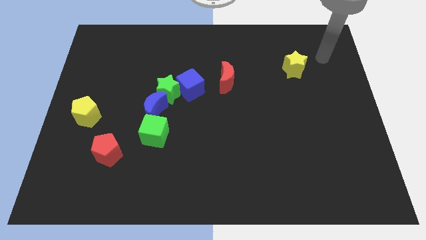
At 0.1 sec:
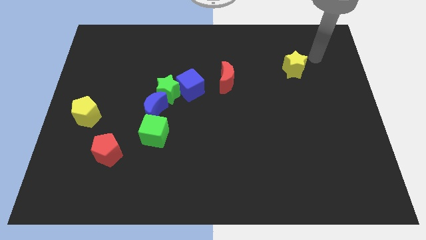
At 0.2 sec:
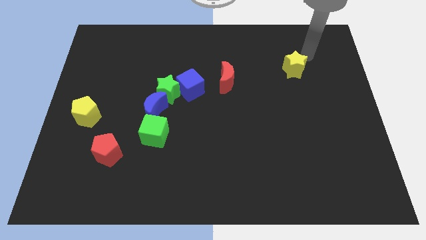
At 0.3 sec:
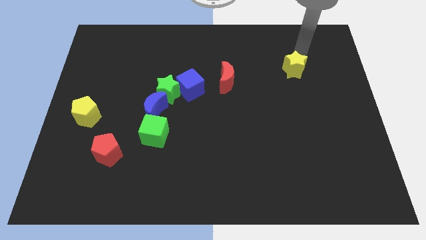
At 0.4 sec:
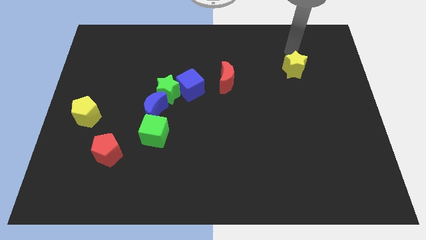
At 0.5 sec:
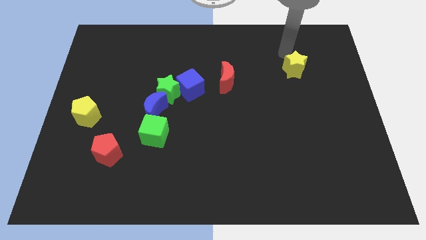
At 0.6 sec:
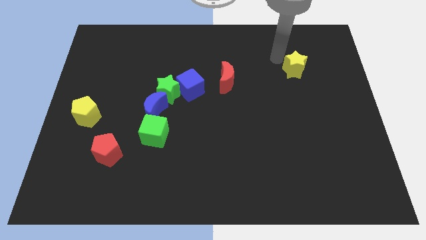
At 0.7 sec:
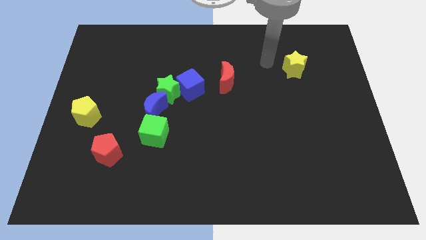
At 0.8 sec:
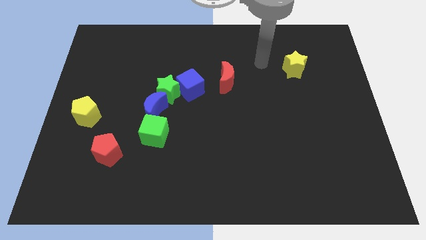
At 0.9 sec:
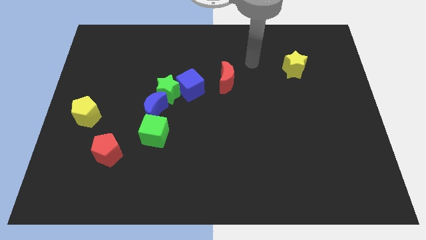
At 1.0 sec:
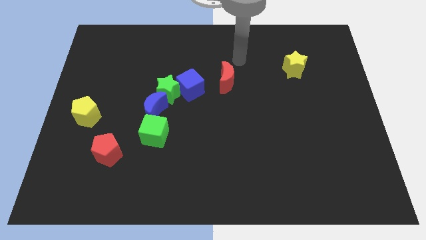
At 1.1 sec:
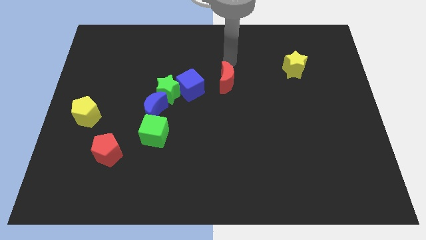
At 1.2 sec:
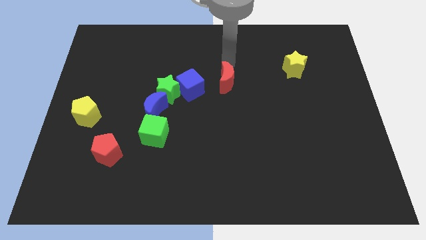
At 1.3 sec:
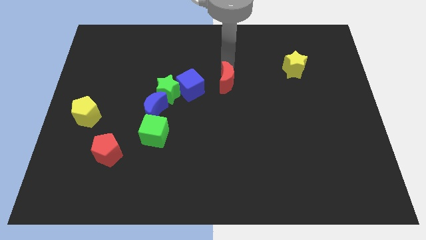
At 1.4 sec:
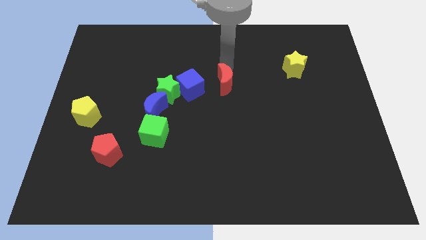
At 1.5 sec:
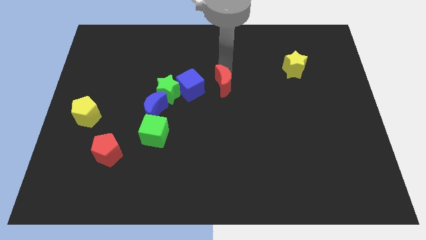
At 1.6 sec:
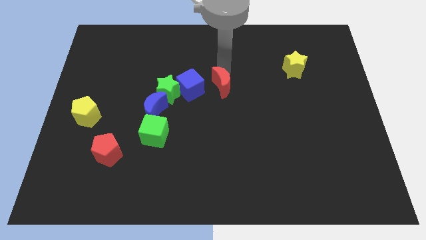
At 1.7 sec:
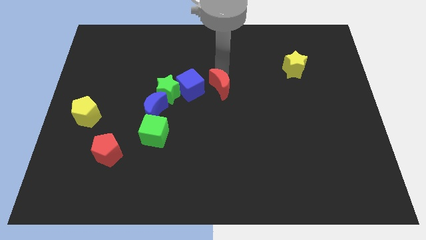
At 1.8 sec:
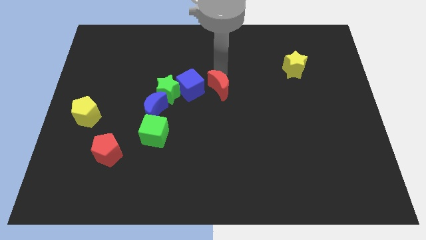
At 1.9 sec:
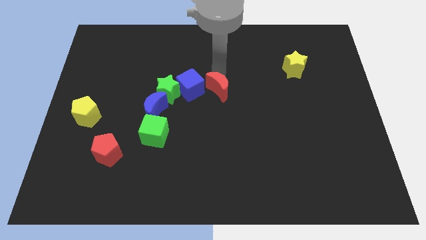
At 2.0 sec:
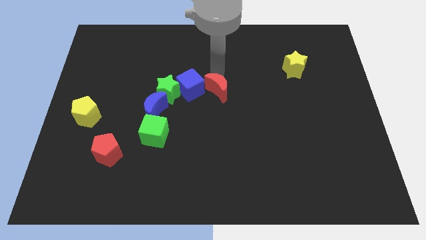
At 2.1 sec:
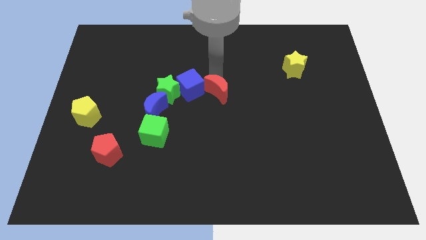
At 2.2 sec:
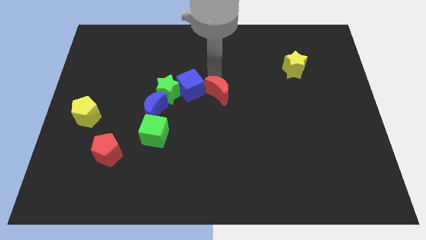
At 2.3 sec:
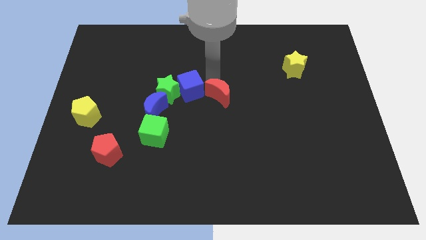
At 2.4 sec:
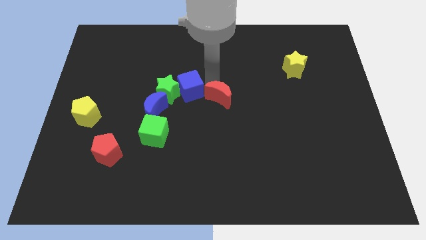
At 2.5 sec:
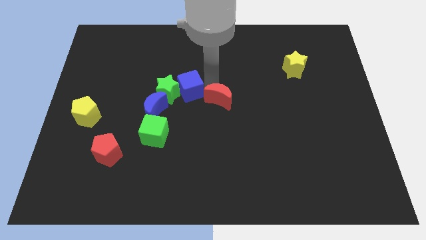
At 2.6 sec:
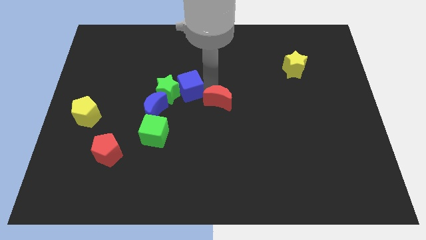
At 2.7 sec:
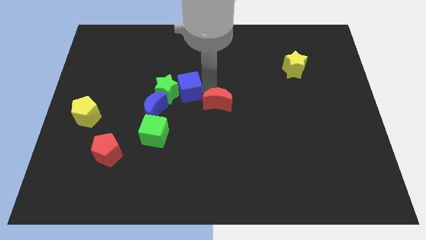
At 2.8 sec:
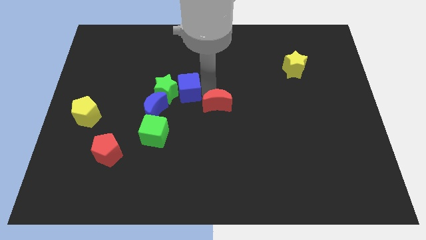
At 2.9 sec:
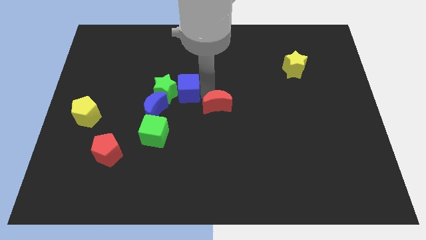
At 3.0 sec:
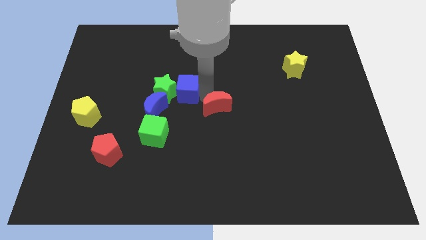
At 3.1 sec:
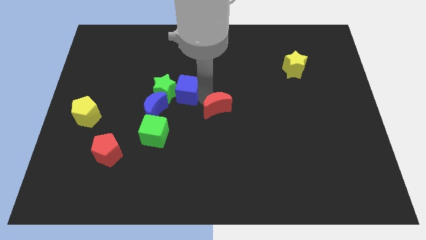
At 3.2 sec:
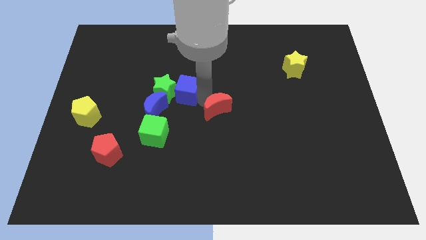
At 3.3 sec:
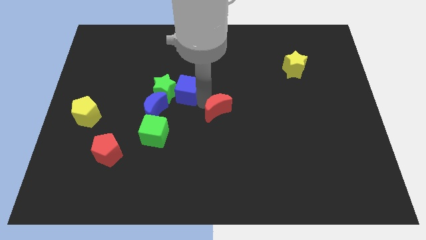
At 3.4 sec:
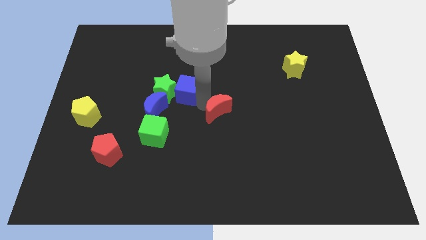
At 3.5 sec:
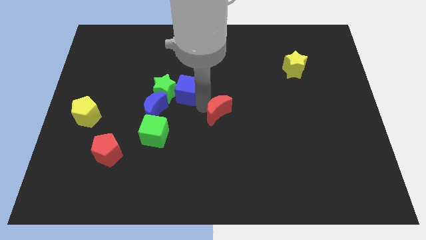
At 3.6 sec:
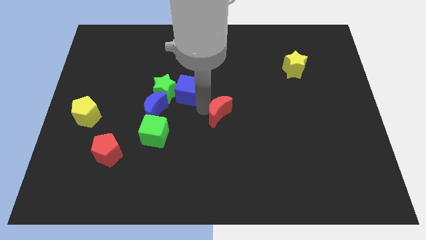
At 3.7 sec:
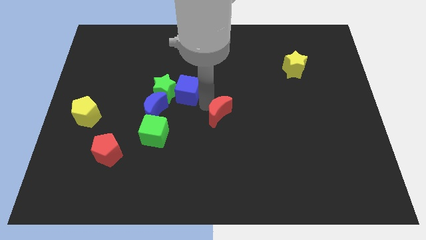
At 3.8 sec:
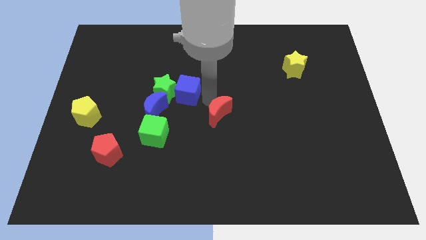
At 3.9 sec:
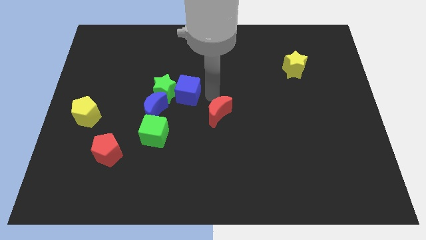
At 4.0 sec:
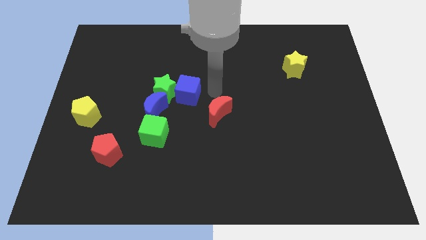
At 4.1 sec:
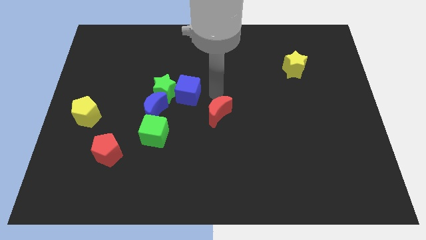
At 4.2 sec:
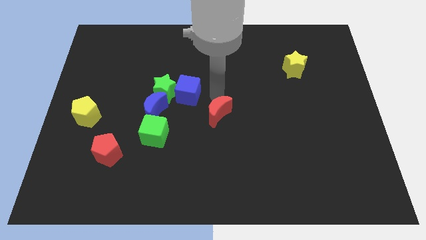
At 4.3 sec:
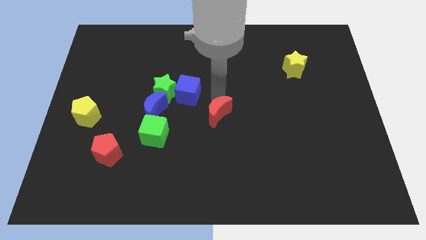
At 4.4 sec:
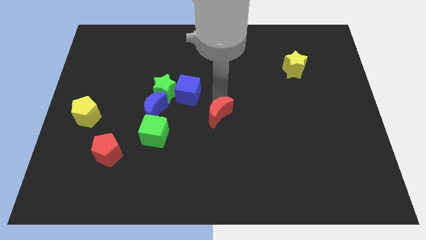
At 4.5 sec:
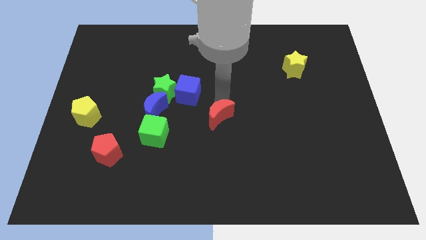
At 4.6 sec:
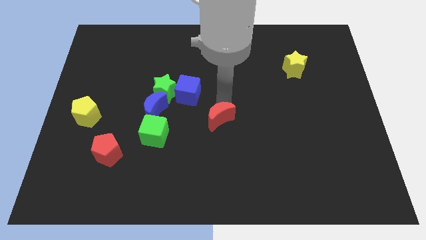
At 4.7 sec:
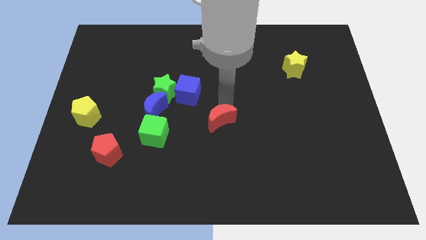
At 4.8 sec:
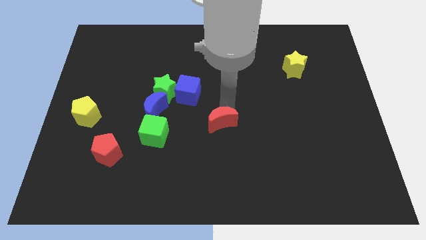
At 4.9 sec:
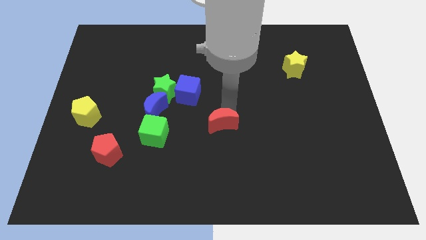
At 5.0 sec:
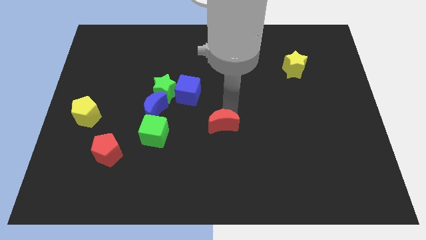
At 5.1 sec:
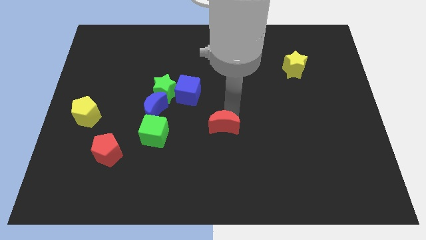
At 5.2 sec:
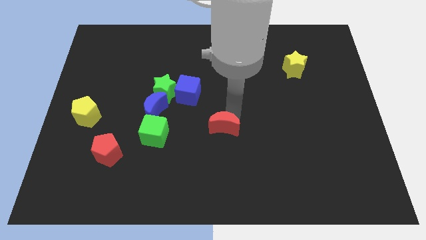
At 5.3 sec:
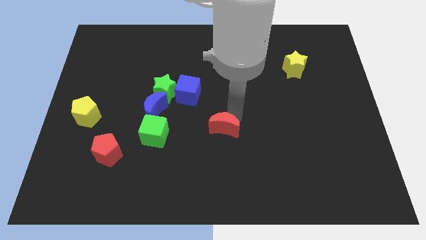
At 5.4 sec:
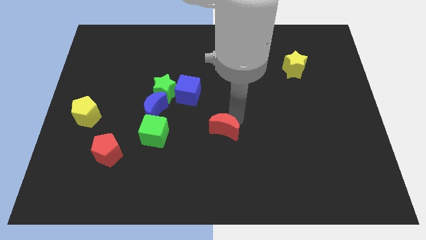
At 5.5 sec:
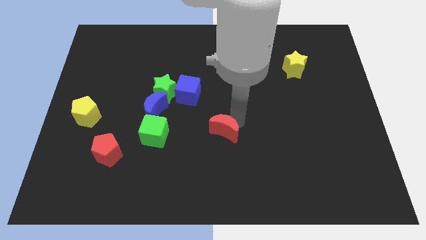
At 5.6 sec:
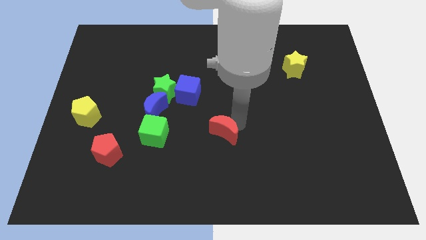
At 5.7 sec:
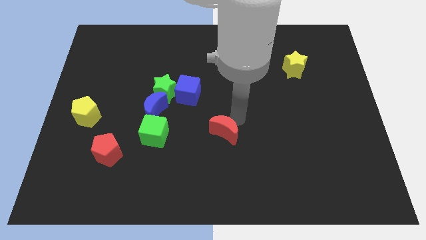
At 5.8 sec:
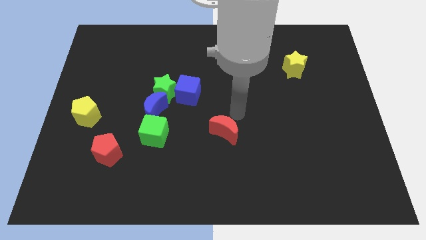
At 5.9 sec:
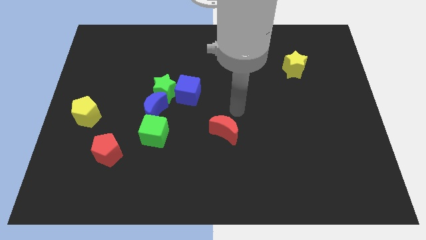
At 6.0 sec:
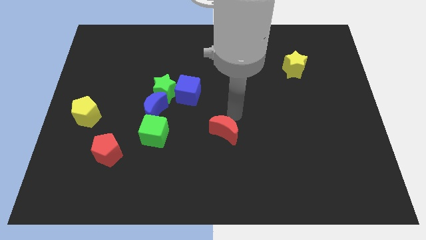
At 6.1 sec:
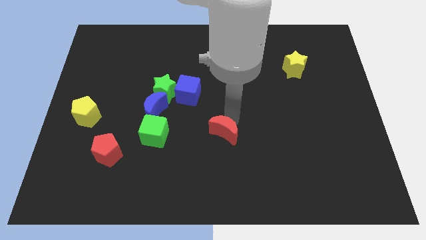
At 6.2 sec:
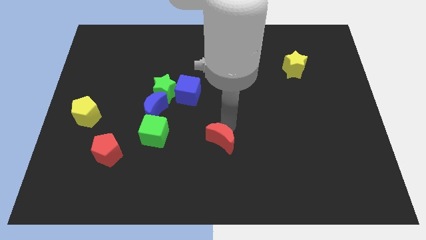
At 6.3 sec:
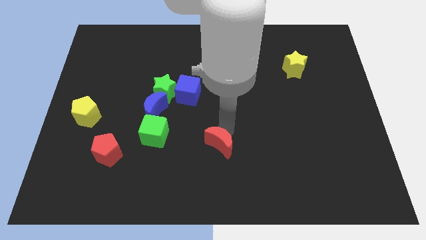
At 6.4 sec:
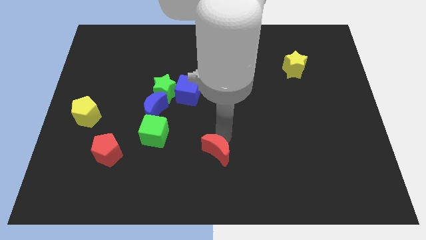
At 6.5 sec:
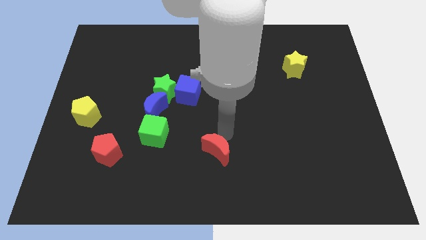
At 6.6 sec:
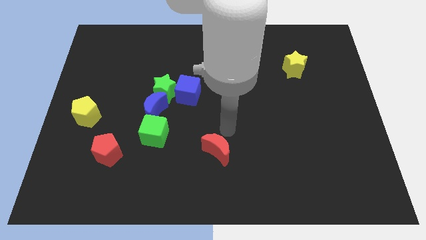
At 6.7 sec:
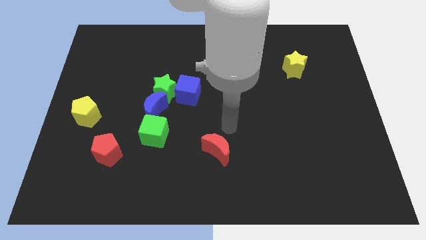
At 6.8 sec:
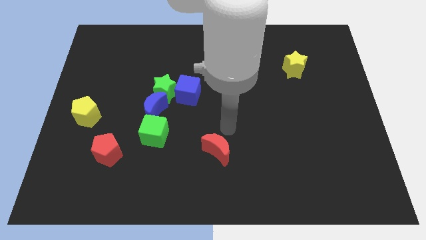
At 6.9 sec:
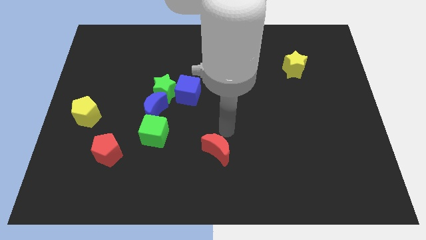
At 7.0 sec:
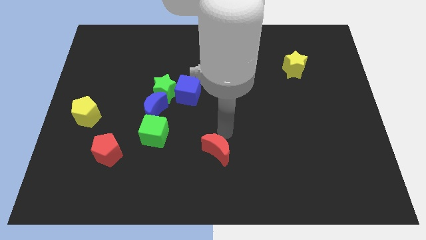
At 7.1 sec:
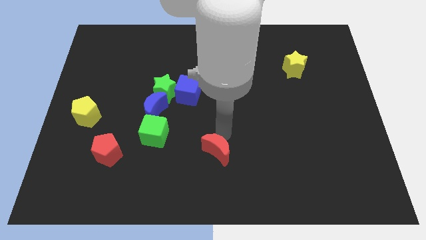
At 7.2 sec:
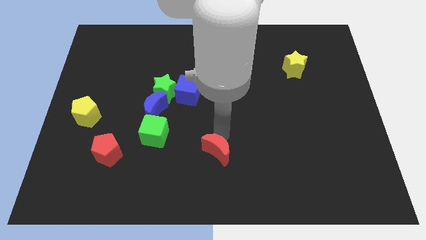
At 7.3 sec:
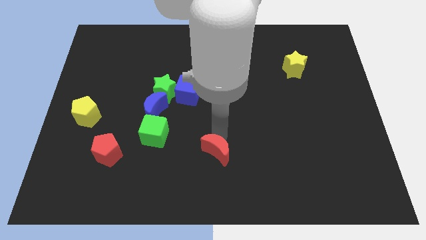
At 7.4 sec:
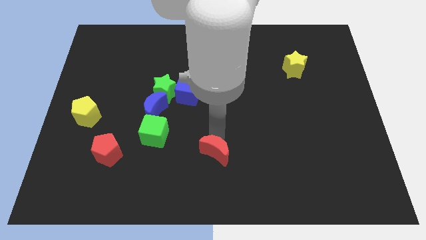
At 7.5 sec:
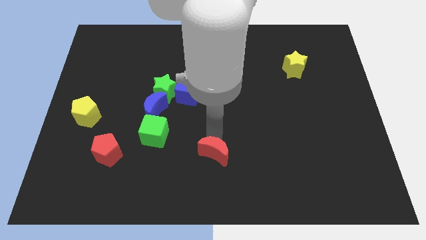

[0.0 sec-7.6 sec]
slide the red moon to the bottom side
